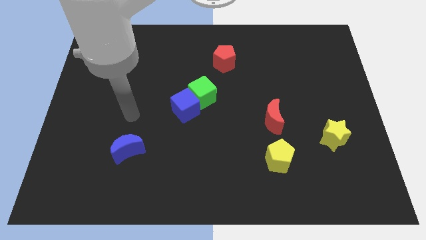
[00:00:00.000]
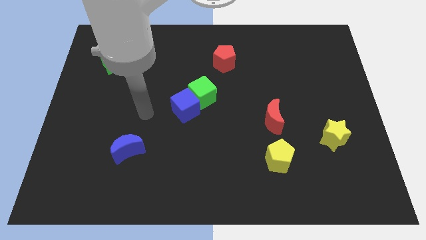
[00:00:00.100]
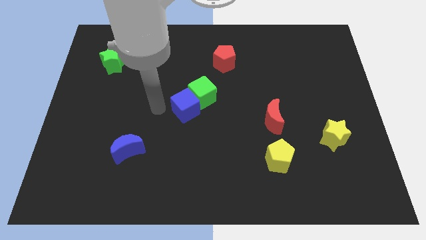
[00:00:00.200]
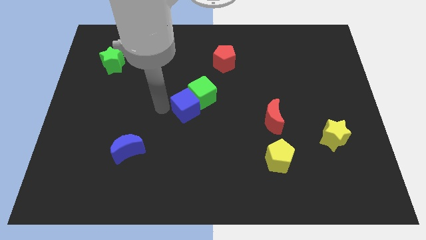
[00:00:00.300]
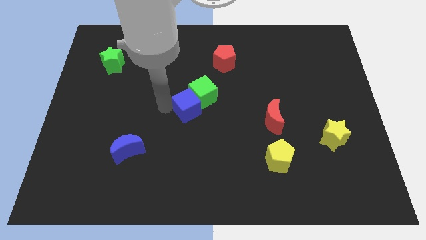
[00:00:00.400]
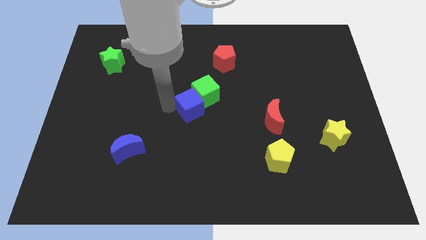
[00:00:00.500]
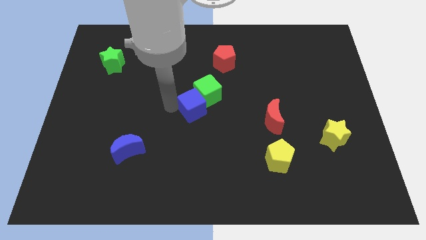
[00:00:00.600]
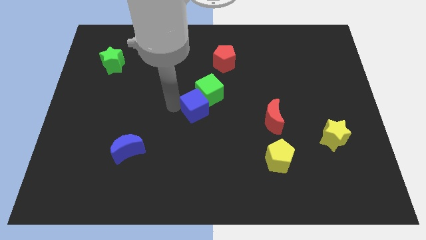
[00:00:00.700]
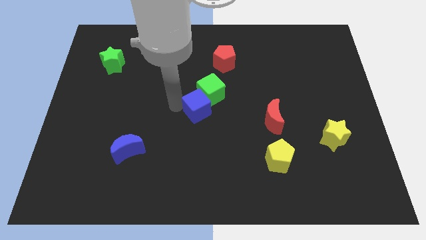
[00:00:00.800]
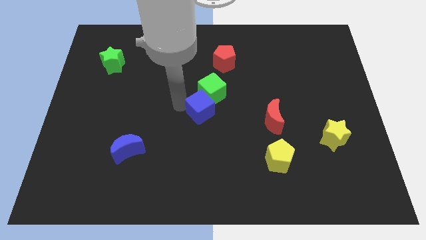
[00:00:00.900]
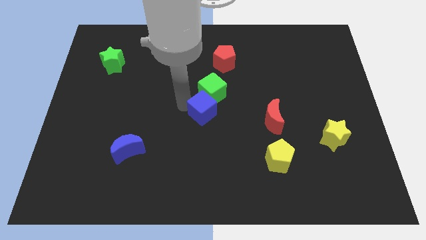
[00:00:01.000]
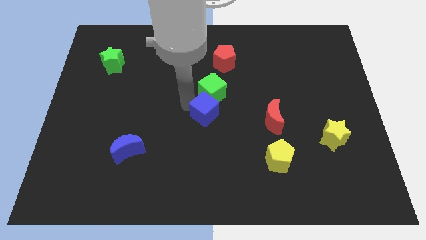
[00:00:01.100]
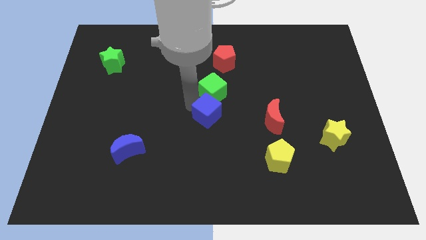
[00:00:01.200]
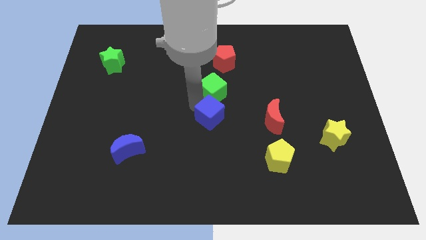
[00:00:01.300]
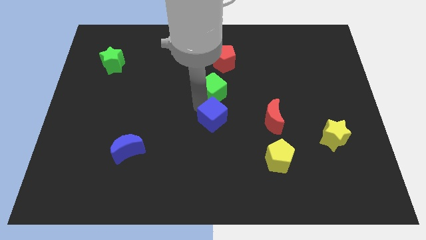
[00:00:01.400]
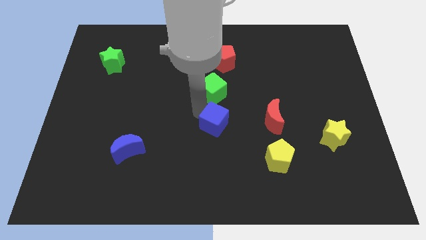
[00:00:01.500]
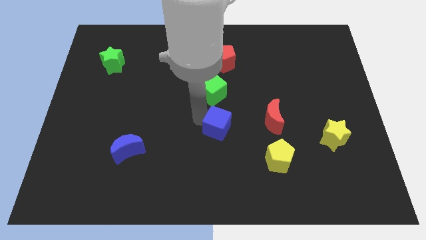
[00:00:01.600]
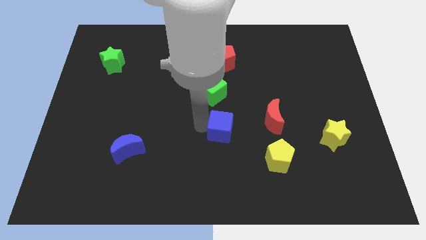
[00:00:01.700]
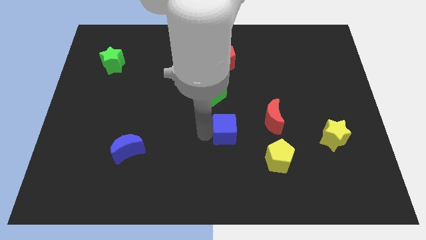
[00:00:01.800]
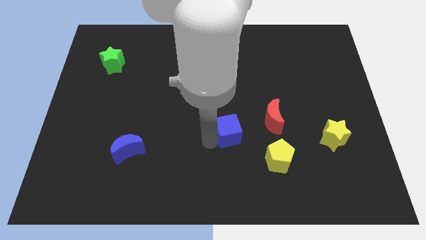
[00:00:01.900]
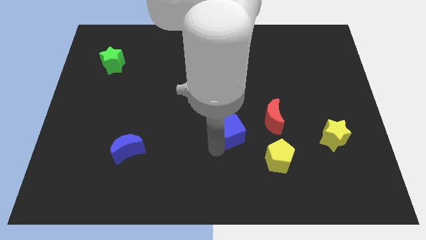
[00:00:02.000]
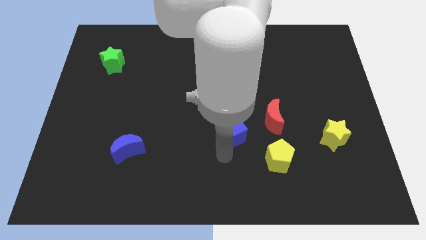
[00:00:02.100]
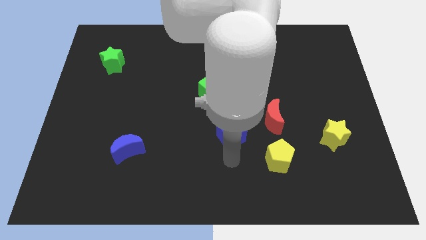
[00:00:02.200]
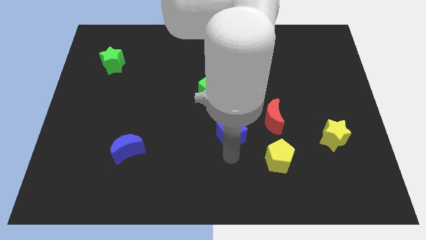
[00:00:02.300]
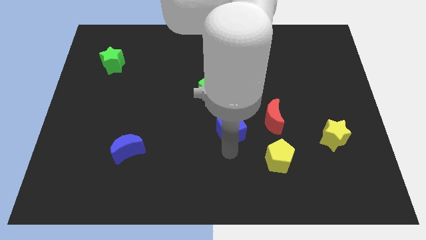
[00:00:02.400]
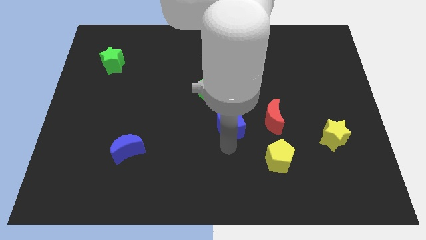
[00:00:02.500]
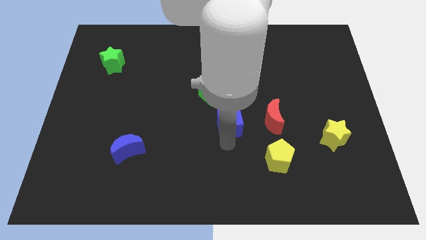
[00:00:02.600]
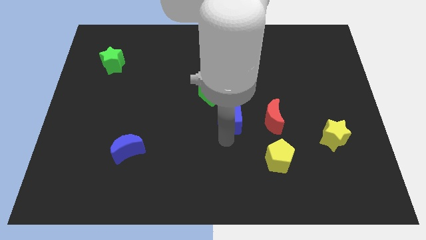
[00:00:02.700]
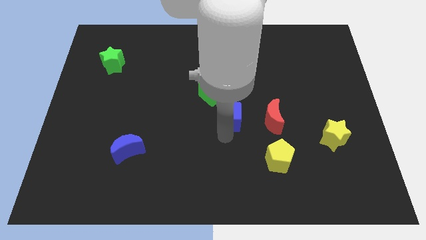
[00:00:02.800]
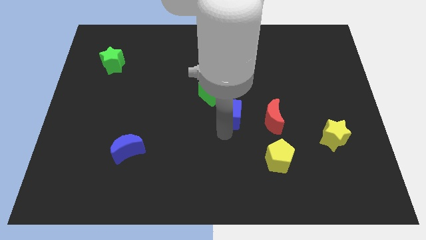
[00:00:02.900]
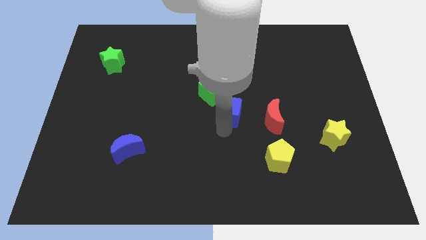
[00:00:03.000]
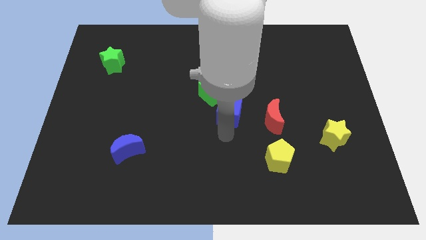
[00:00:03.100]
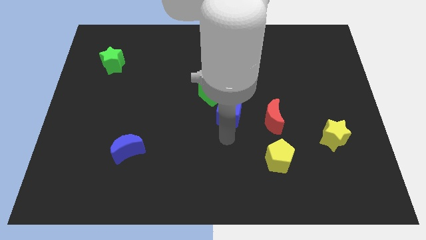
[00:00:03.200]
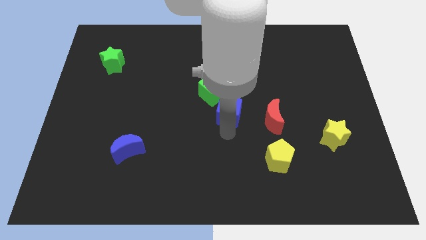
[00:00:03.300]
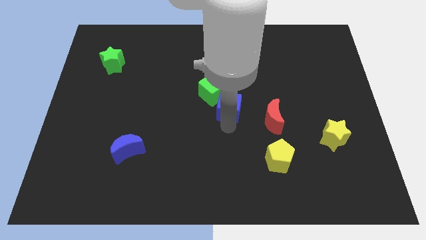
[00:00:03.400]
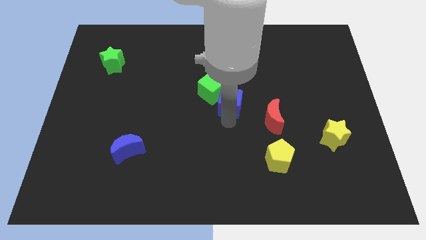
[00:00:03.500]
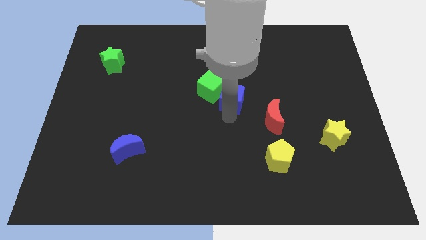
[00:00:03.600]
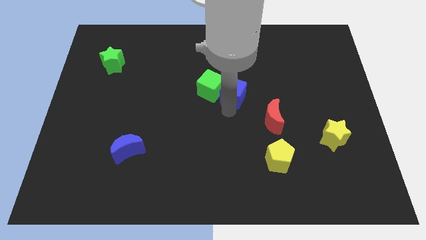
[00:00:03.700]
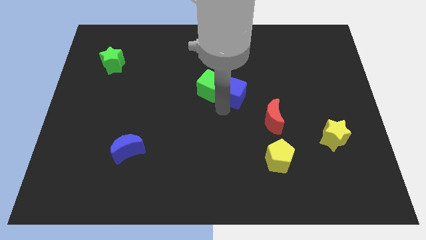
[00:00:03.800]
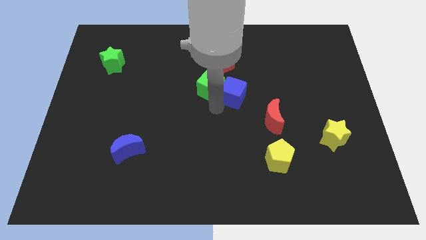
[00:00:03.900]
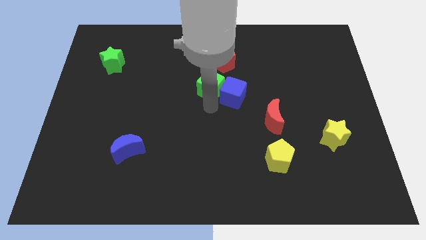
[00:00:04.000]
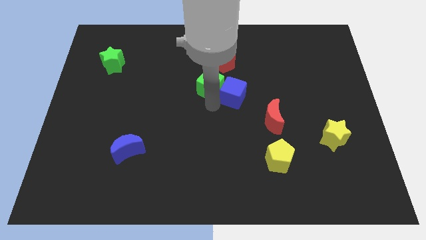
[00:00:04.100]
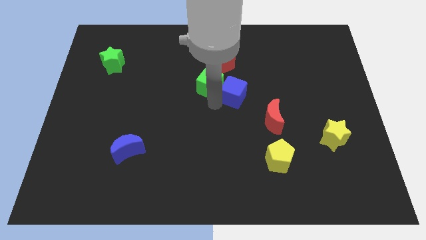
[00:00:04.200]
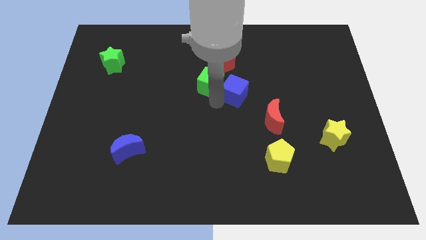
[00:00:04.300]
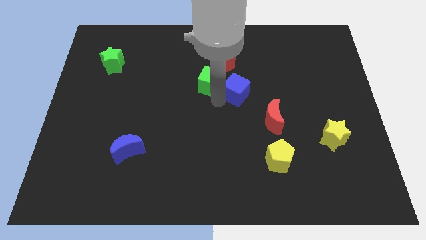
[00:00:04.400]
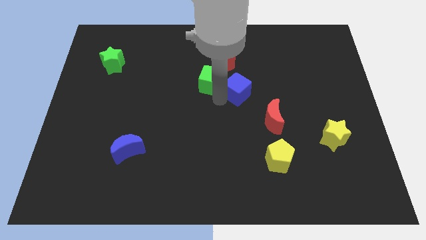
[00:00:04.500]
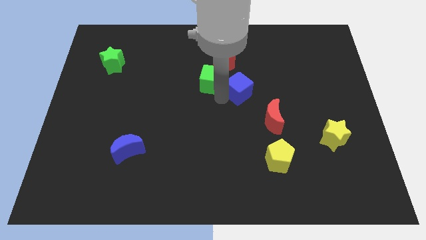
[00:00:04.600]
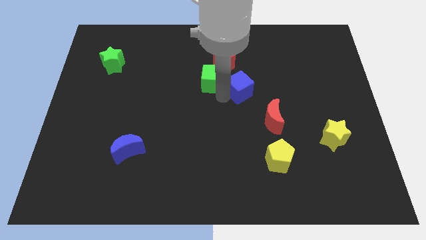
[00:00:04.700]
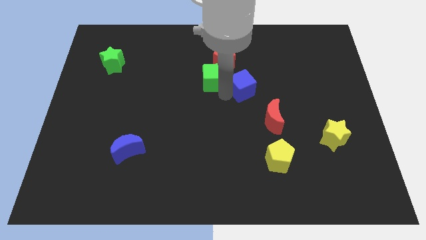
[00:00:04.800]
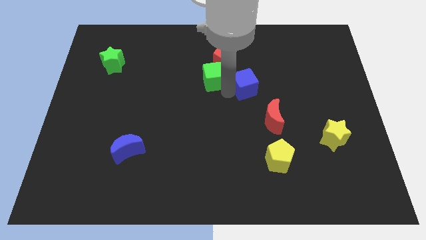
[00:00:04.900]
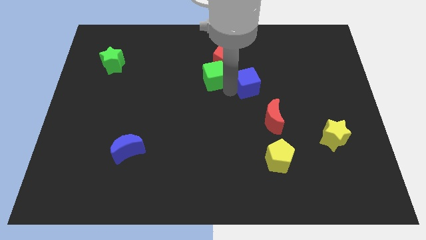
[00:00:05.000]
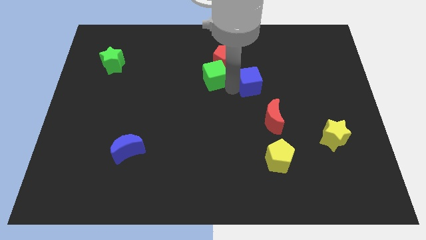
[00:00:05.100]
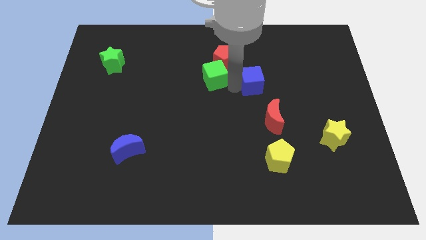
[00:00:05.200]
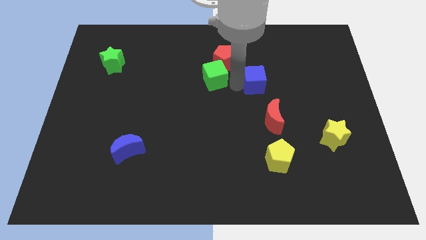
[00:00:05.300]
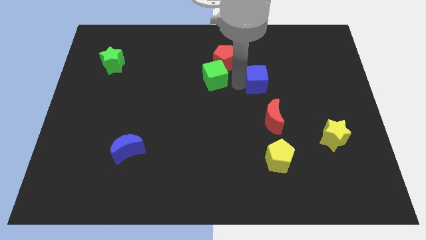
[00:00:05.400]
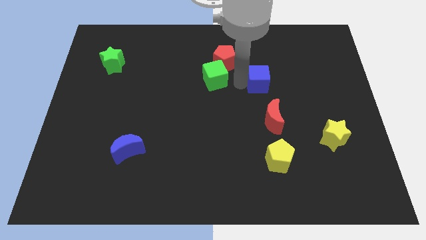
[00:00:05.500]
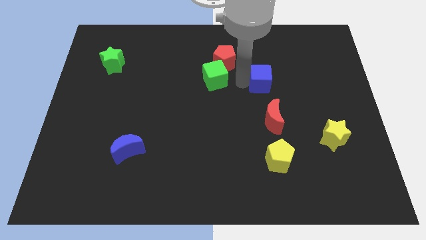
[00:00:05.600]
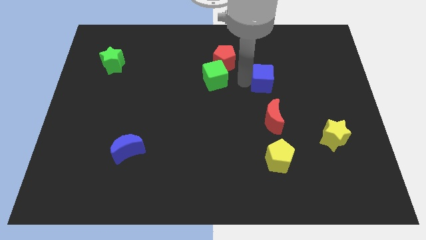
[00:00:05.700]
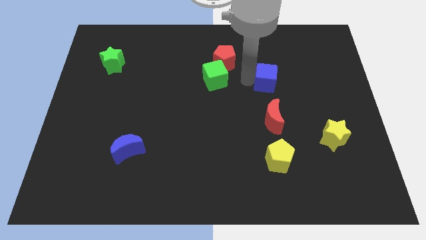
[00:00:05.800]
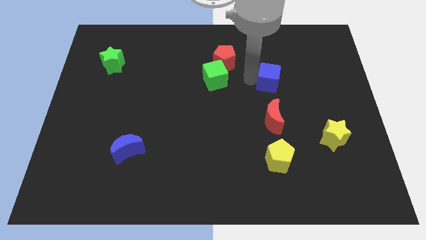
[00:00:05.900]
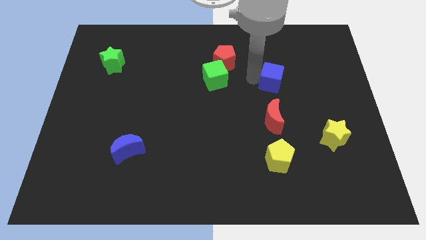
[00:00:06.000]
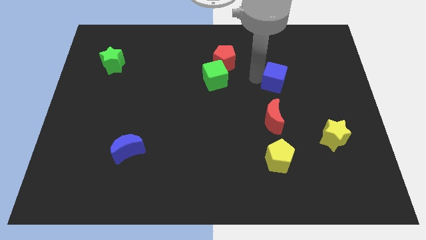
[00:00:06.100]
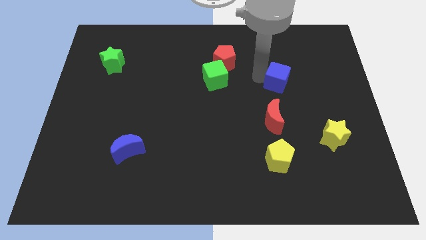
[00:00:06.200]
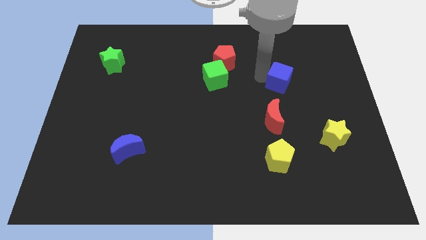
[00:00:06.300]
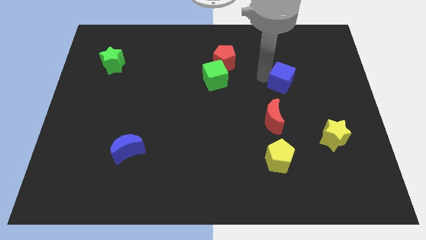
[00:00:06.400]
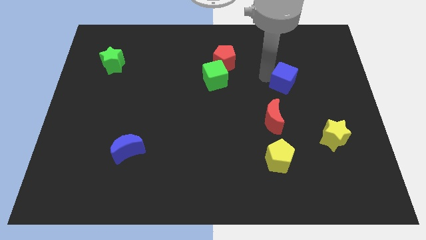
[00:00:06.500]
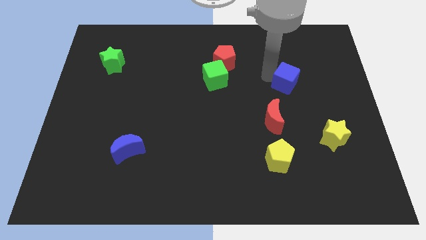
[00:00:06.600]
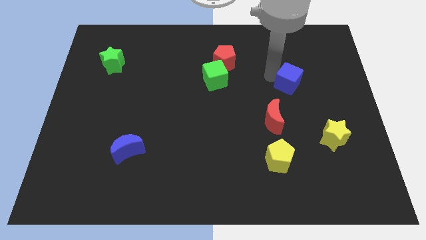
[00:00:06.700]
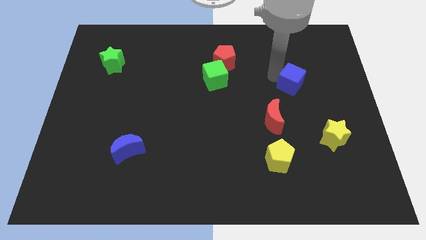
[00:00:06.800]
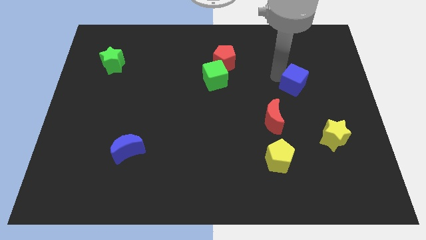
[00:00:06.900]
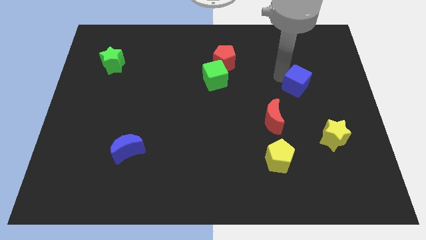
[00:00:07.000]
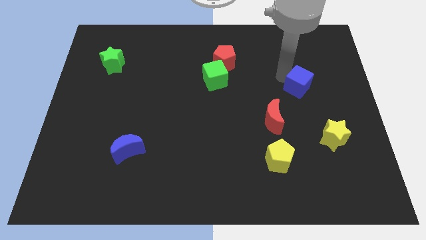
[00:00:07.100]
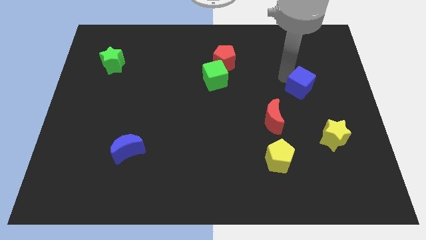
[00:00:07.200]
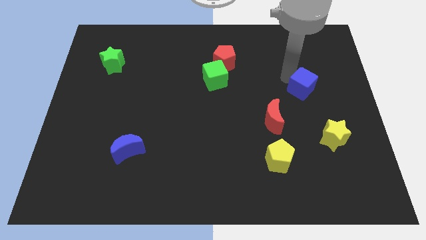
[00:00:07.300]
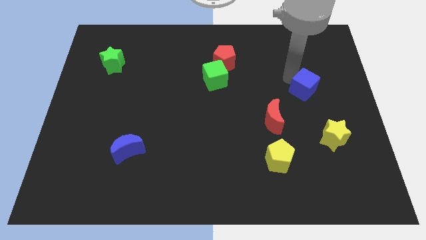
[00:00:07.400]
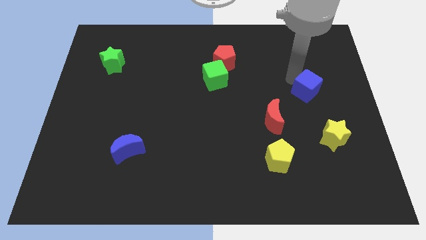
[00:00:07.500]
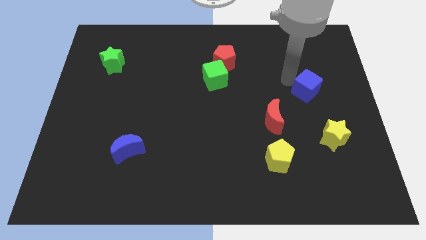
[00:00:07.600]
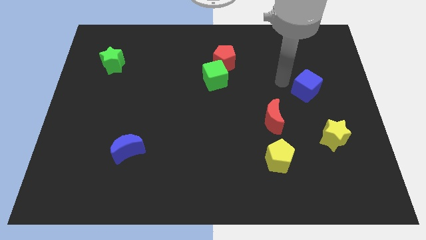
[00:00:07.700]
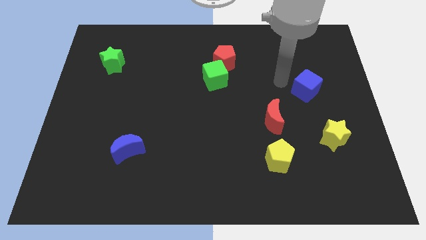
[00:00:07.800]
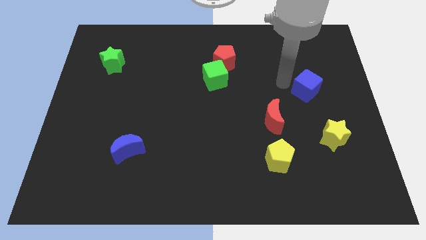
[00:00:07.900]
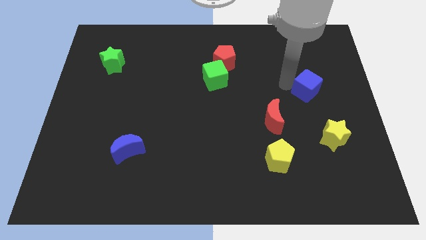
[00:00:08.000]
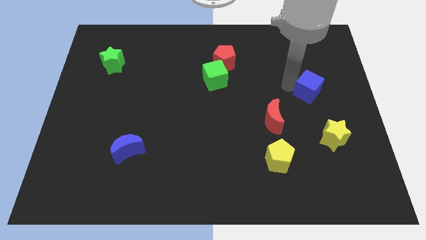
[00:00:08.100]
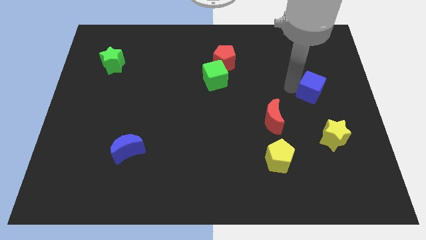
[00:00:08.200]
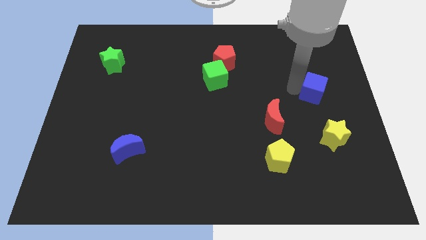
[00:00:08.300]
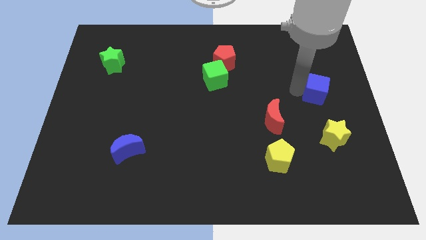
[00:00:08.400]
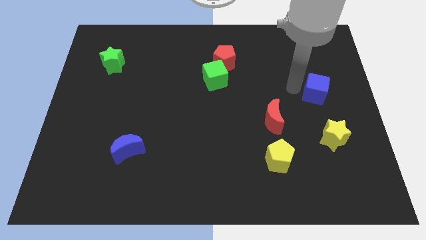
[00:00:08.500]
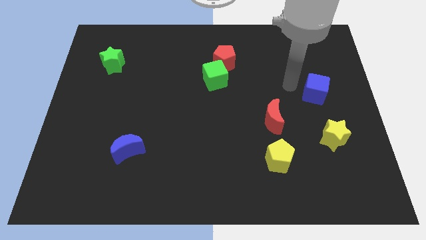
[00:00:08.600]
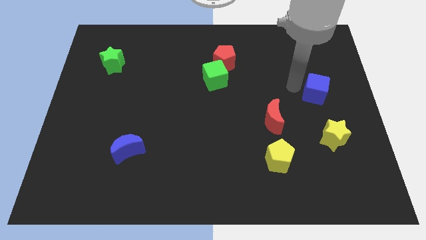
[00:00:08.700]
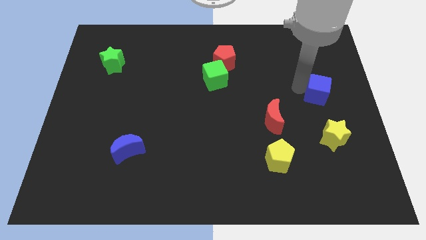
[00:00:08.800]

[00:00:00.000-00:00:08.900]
slide the blue cube to the right side of the board
